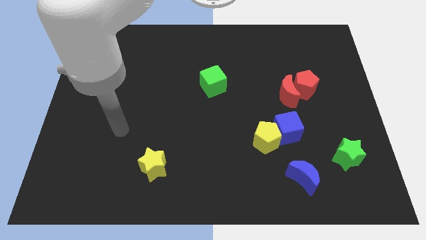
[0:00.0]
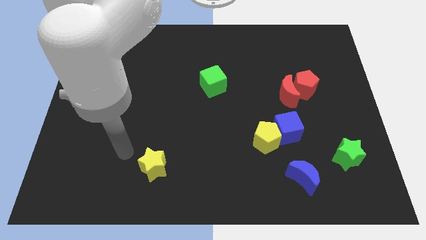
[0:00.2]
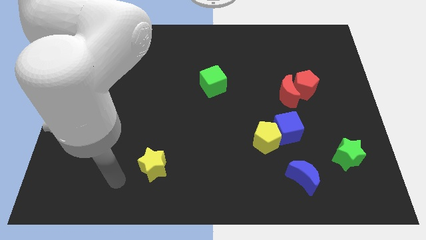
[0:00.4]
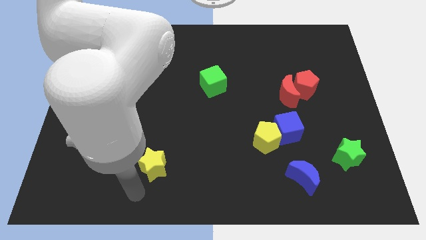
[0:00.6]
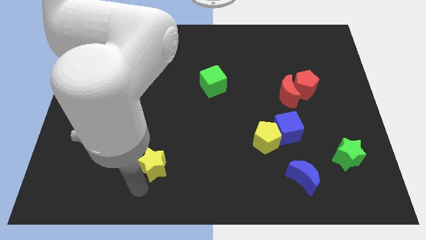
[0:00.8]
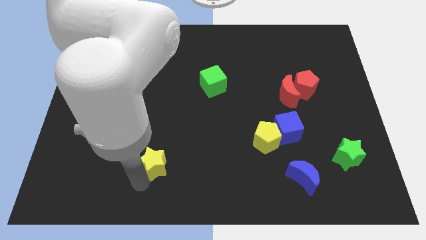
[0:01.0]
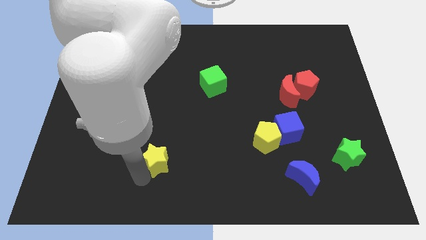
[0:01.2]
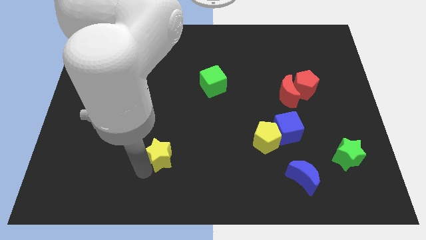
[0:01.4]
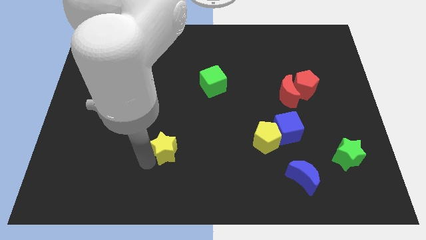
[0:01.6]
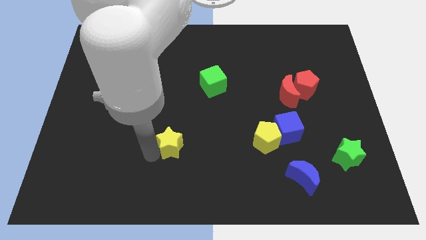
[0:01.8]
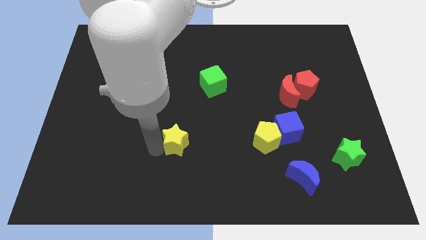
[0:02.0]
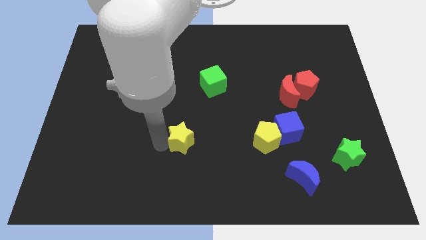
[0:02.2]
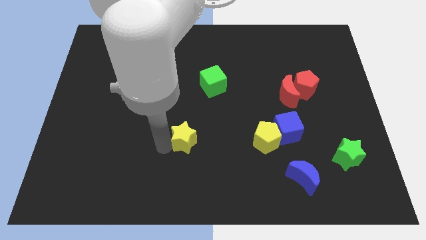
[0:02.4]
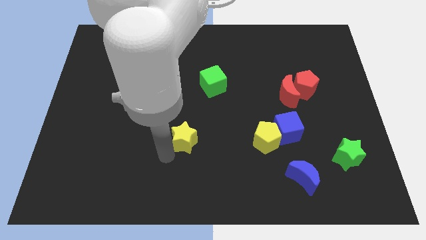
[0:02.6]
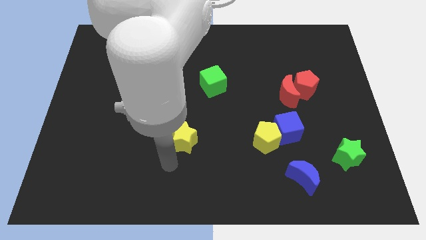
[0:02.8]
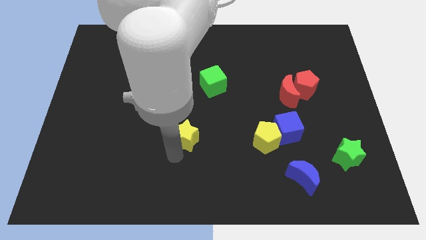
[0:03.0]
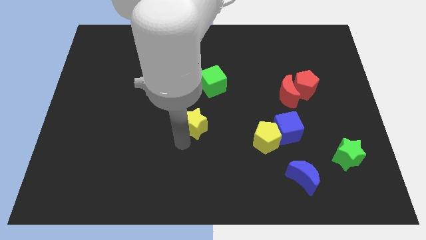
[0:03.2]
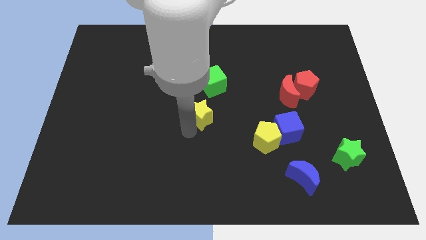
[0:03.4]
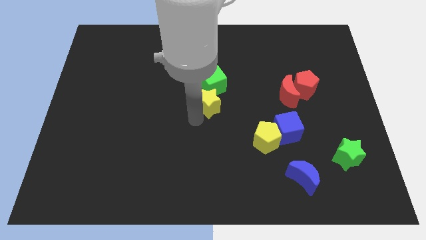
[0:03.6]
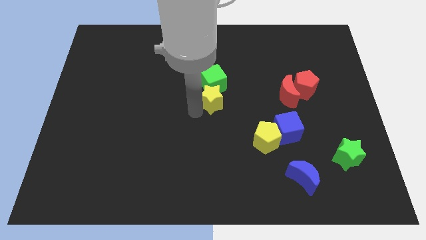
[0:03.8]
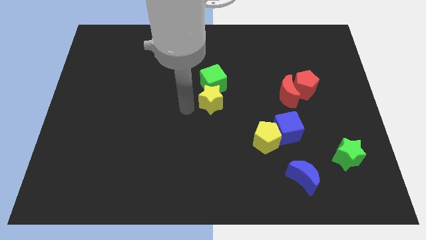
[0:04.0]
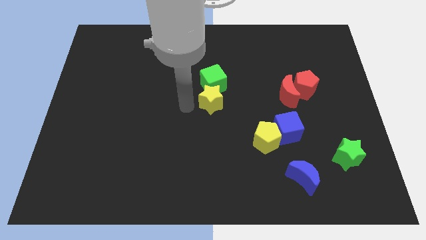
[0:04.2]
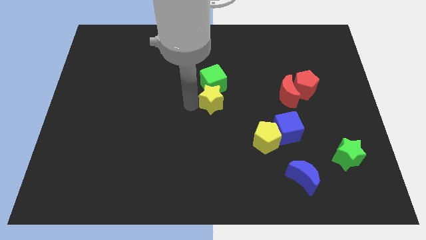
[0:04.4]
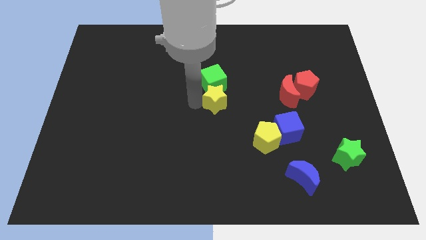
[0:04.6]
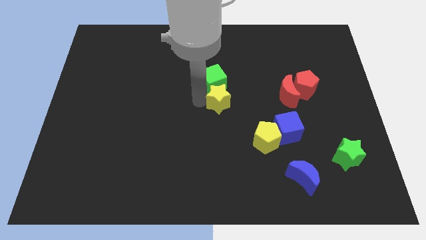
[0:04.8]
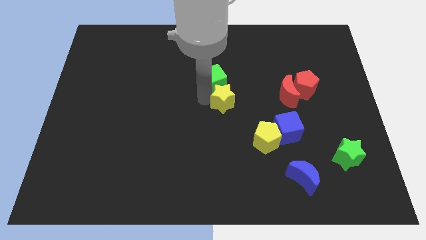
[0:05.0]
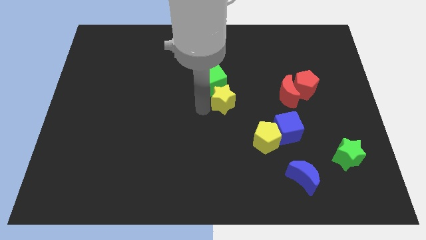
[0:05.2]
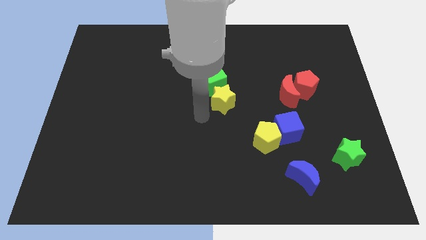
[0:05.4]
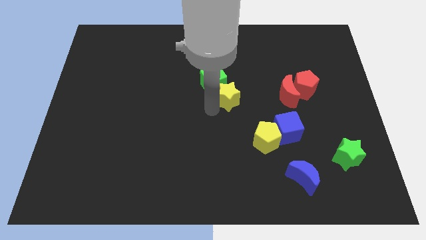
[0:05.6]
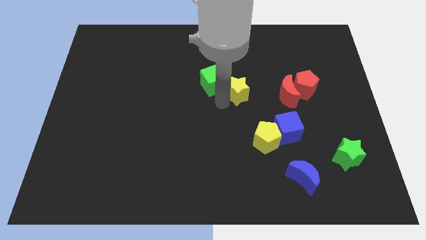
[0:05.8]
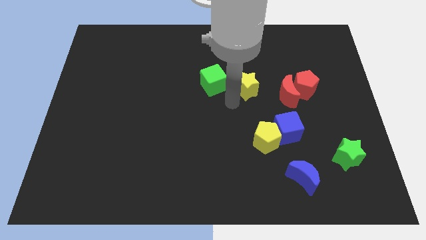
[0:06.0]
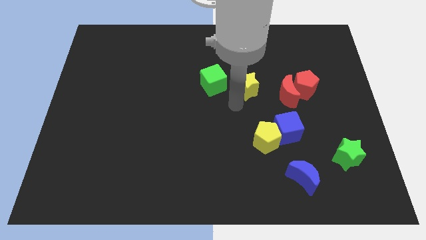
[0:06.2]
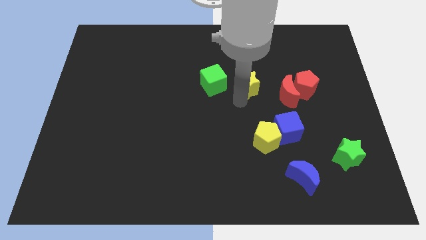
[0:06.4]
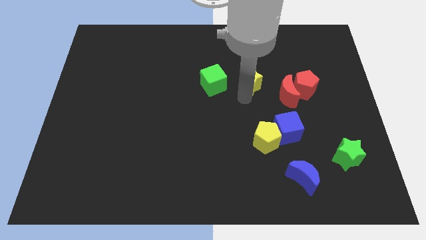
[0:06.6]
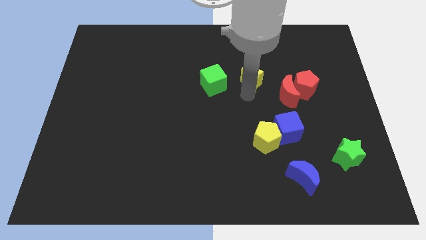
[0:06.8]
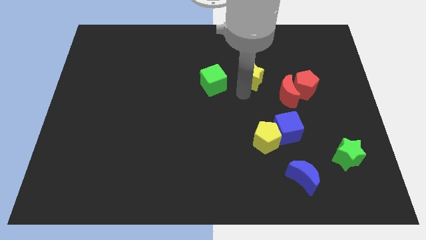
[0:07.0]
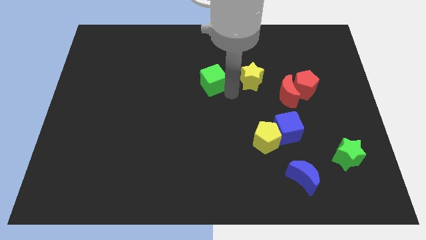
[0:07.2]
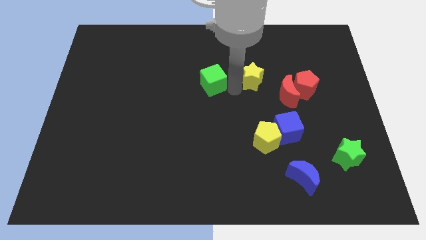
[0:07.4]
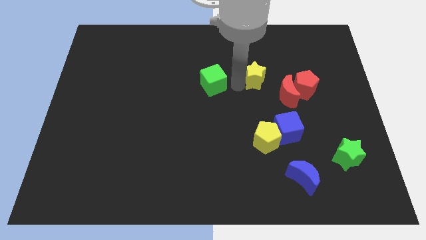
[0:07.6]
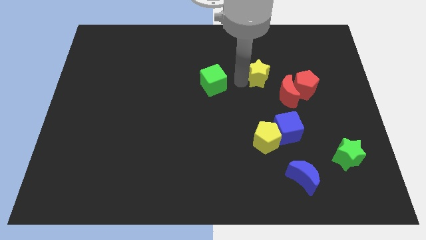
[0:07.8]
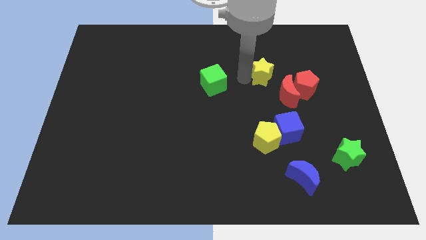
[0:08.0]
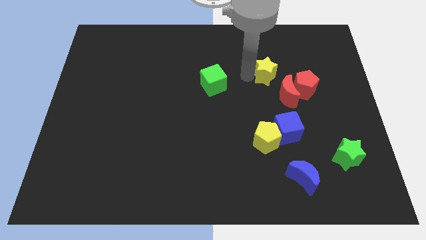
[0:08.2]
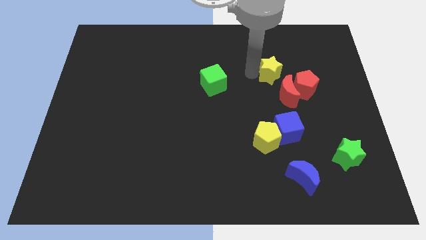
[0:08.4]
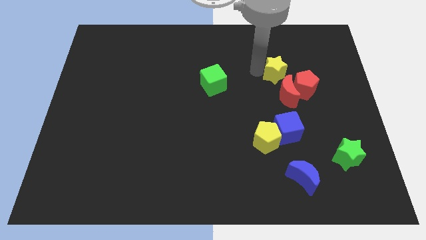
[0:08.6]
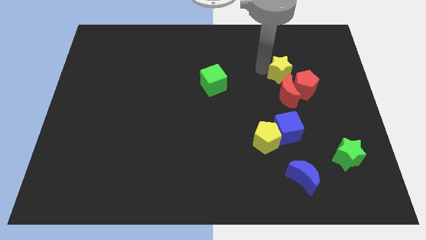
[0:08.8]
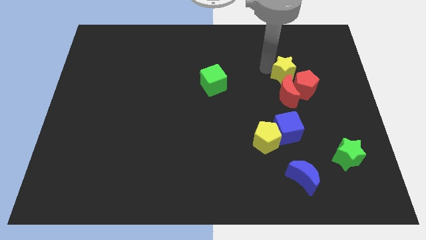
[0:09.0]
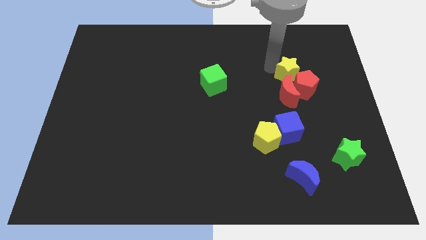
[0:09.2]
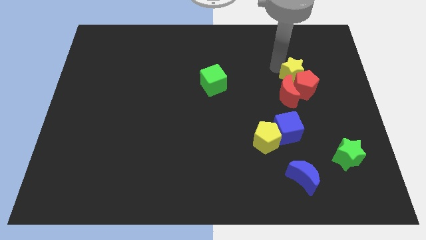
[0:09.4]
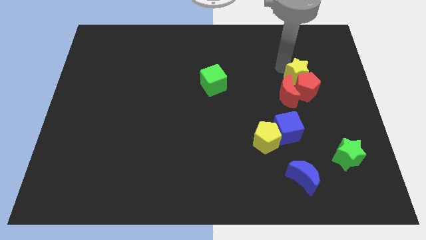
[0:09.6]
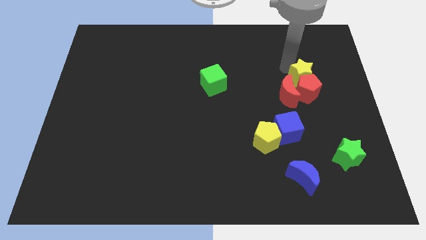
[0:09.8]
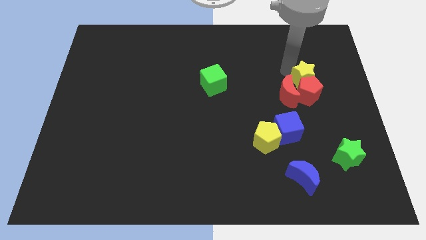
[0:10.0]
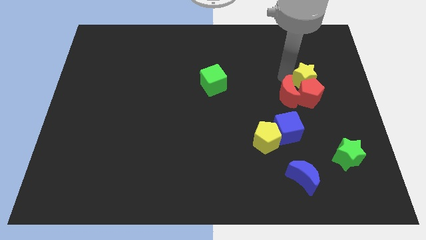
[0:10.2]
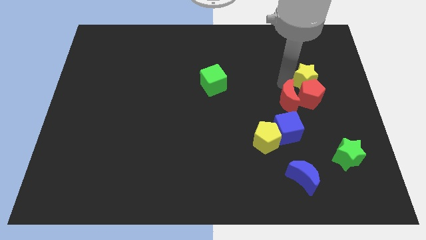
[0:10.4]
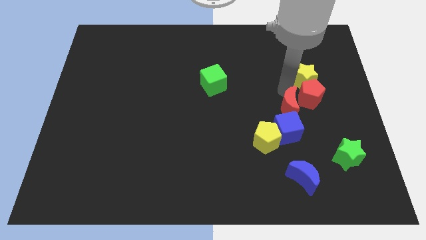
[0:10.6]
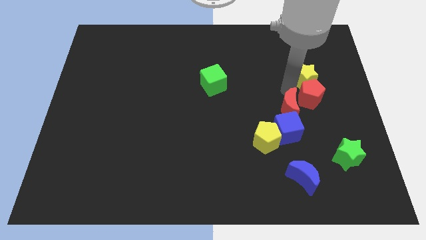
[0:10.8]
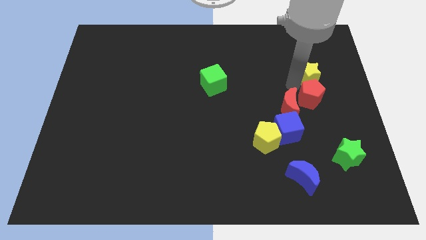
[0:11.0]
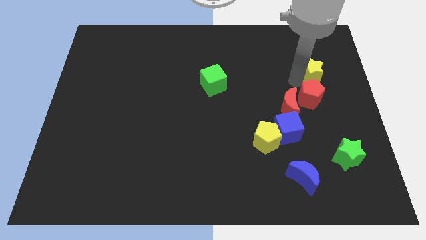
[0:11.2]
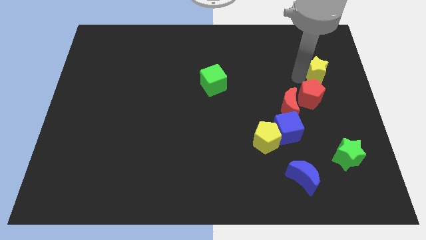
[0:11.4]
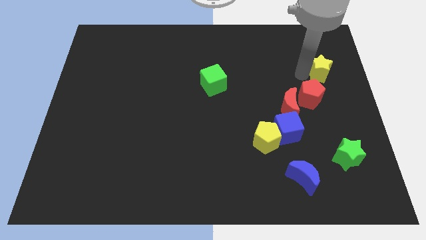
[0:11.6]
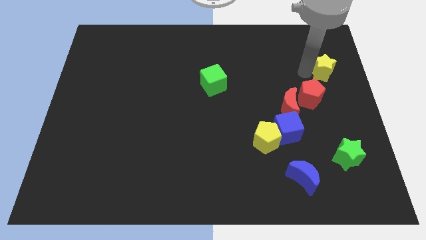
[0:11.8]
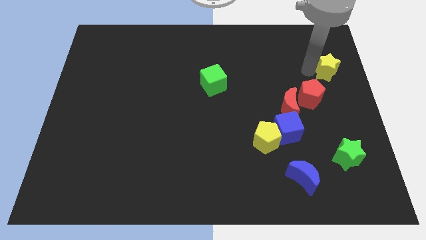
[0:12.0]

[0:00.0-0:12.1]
put the yellow star to the center right

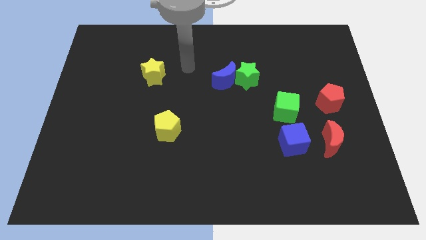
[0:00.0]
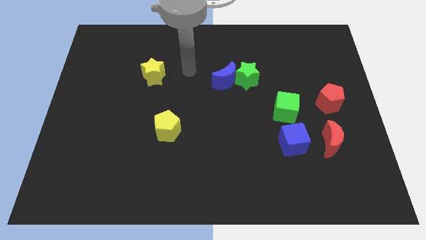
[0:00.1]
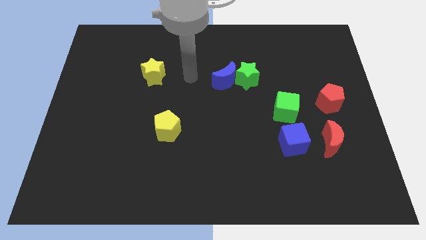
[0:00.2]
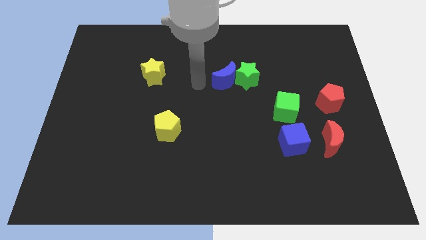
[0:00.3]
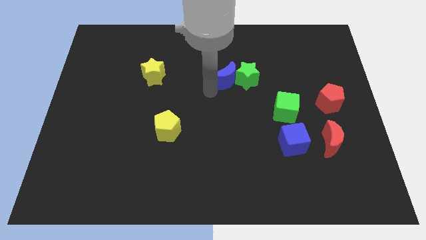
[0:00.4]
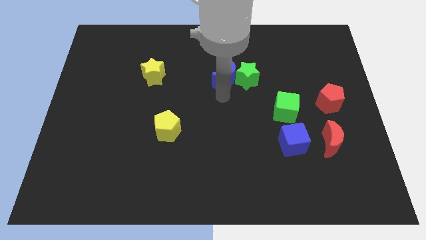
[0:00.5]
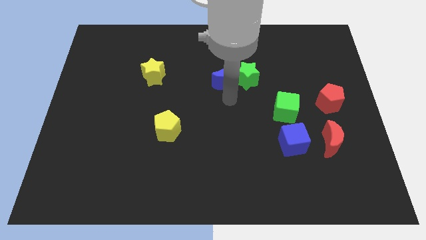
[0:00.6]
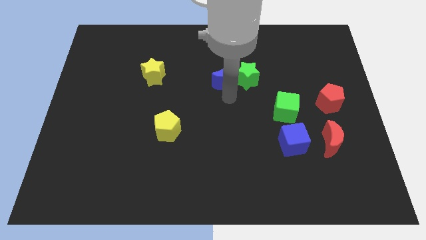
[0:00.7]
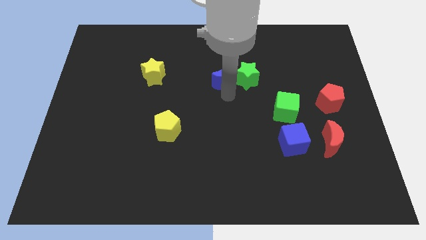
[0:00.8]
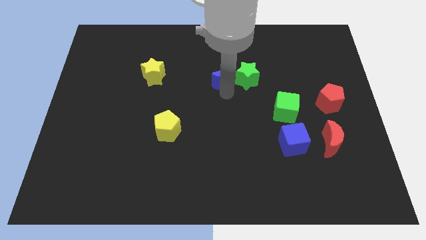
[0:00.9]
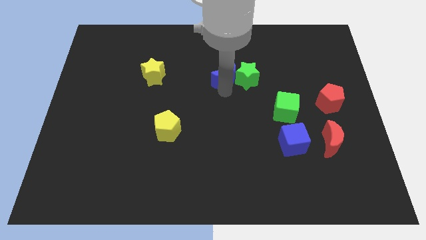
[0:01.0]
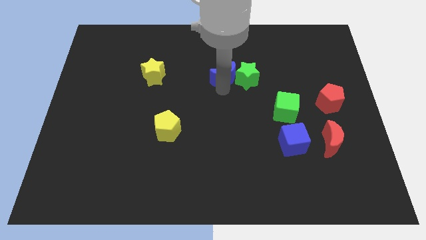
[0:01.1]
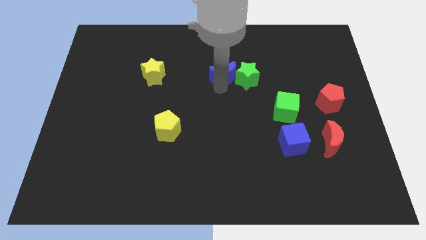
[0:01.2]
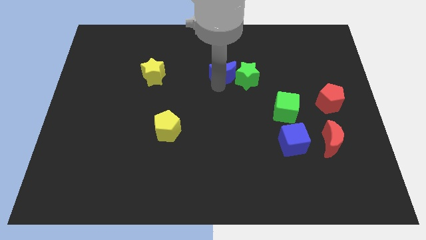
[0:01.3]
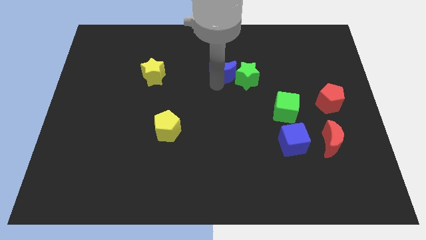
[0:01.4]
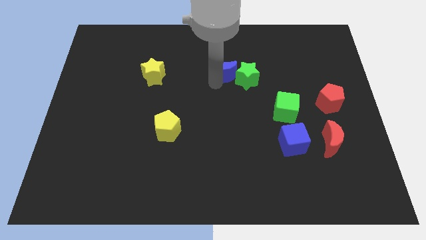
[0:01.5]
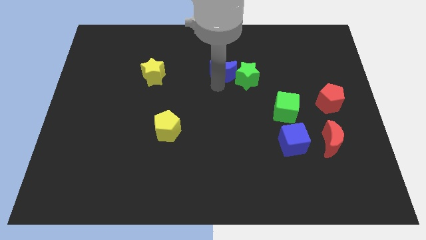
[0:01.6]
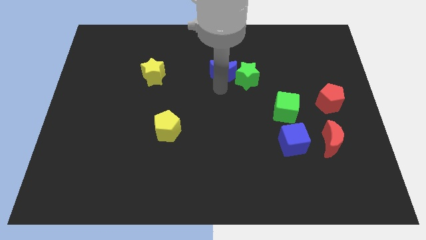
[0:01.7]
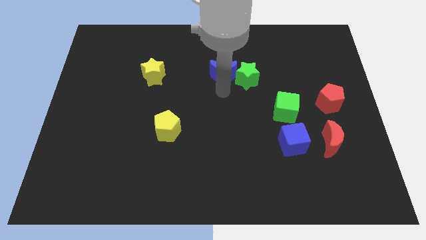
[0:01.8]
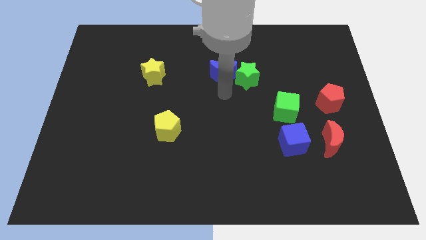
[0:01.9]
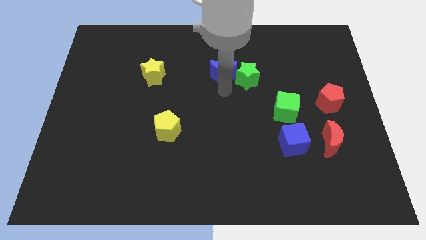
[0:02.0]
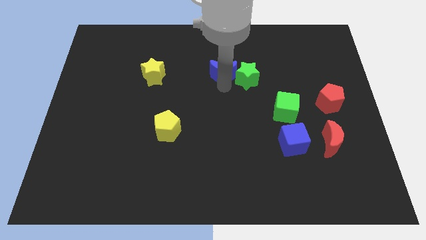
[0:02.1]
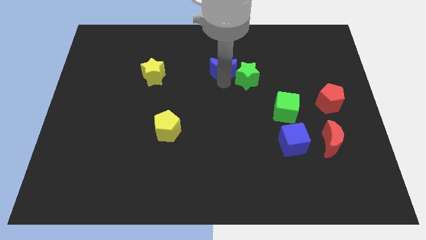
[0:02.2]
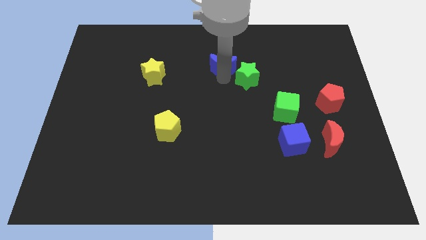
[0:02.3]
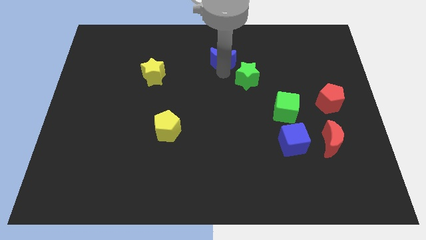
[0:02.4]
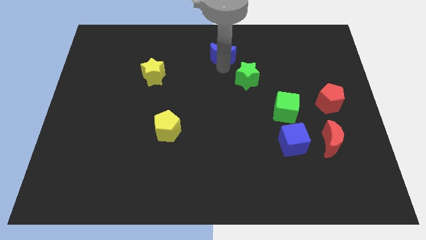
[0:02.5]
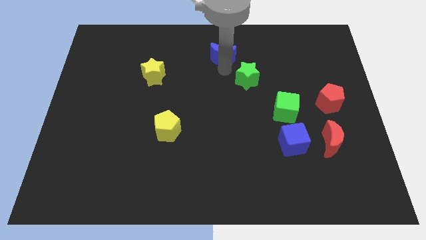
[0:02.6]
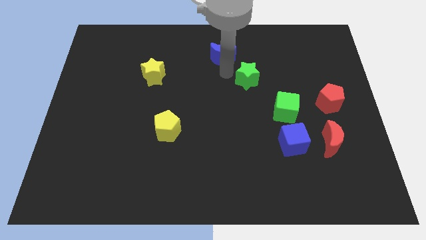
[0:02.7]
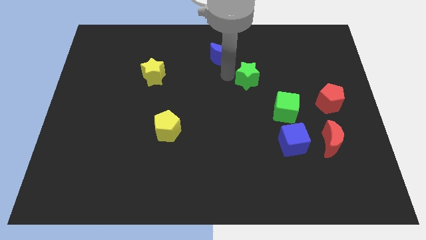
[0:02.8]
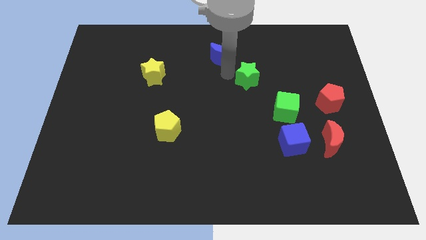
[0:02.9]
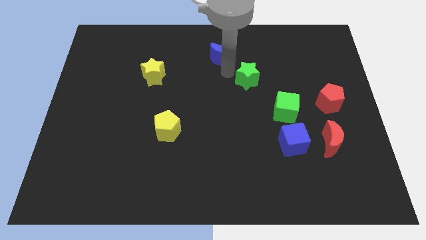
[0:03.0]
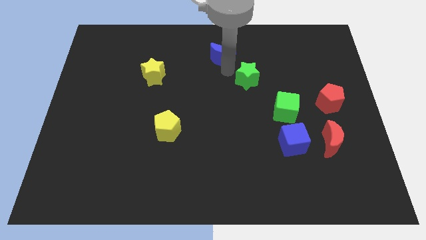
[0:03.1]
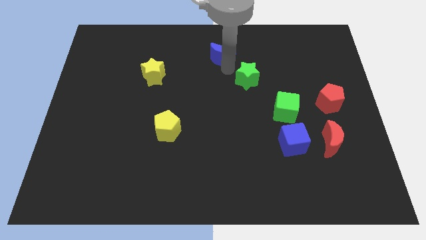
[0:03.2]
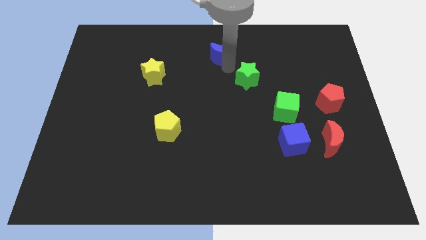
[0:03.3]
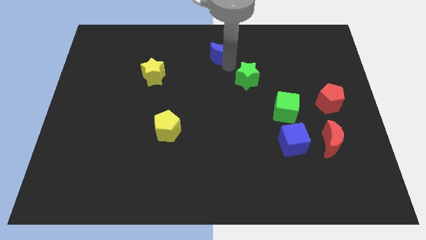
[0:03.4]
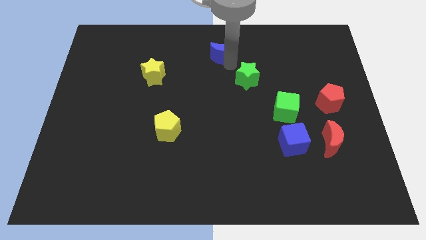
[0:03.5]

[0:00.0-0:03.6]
slide the blue moon to the top side
